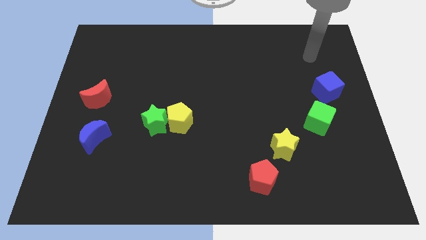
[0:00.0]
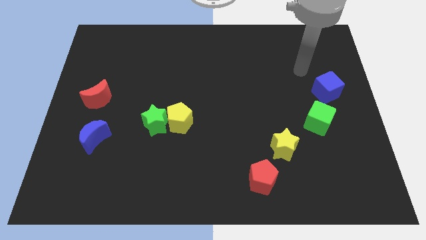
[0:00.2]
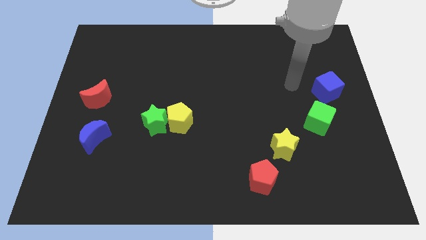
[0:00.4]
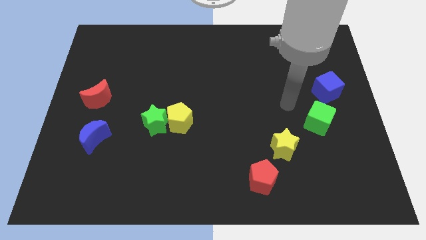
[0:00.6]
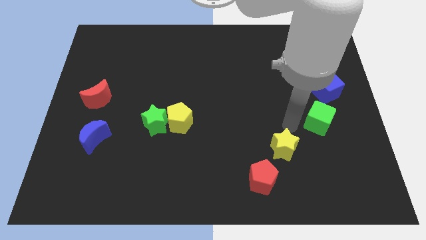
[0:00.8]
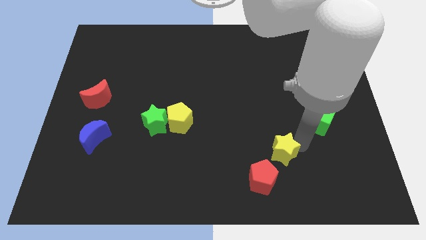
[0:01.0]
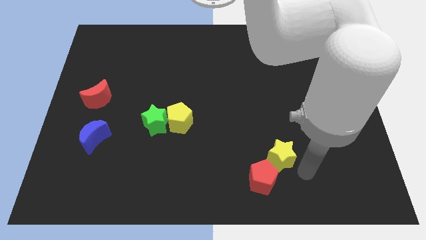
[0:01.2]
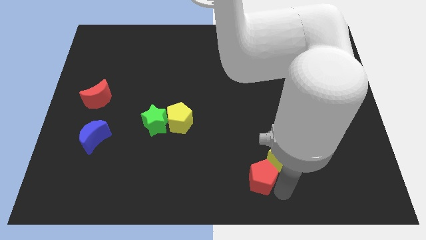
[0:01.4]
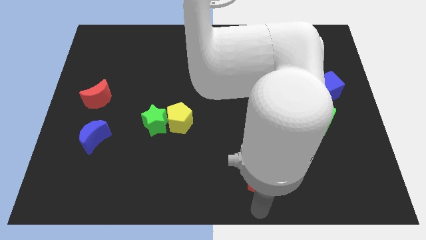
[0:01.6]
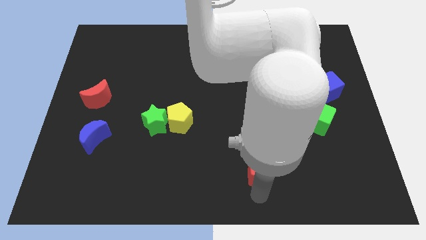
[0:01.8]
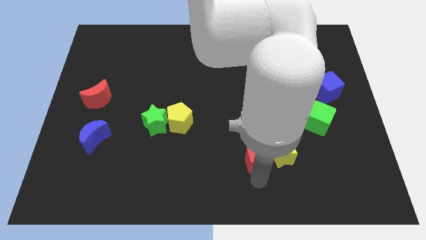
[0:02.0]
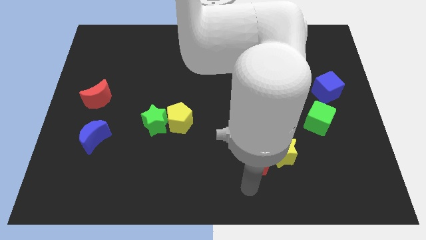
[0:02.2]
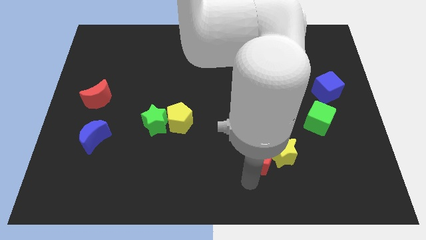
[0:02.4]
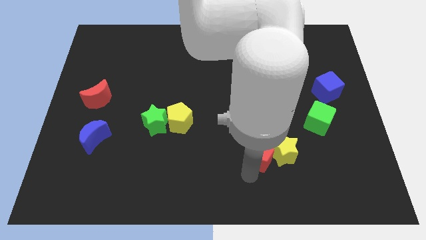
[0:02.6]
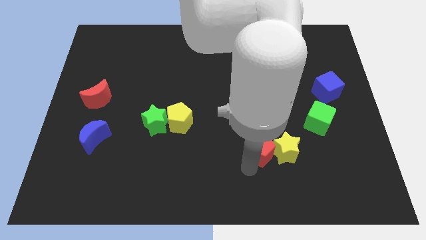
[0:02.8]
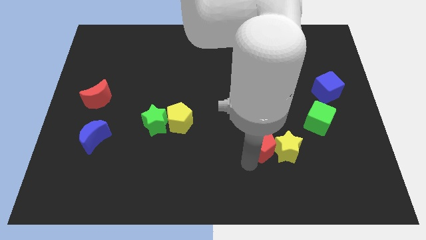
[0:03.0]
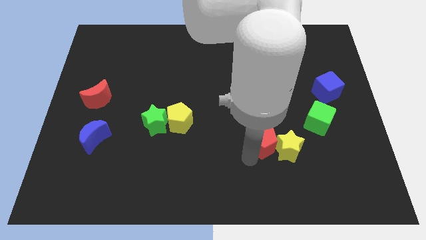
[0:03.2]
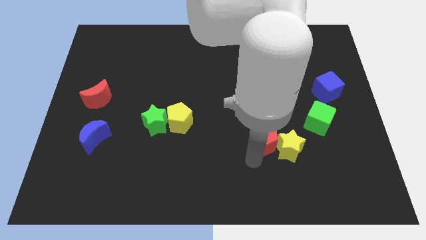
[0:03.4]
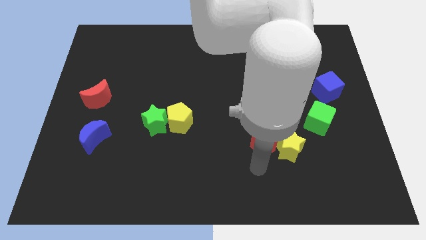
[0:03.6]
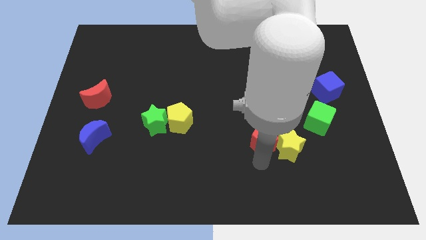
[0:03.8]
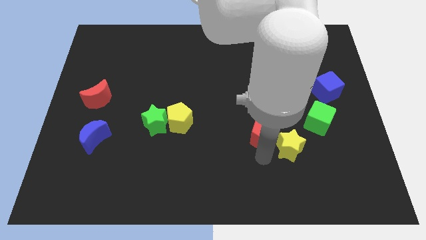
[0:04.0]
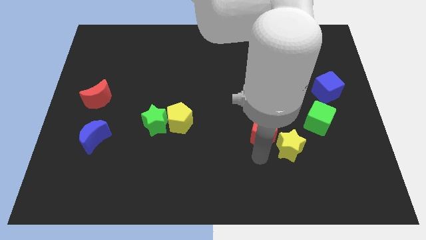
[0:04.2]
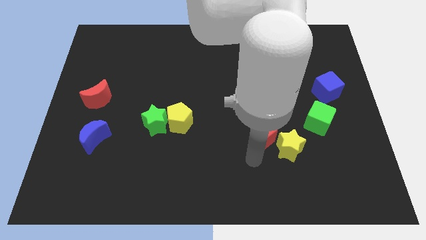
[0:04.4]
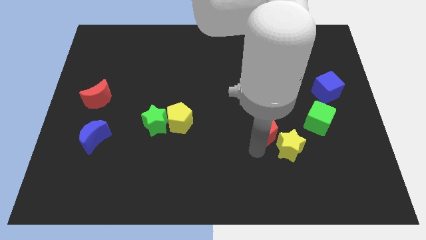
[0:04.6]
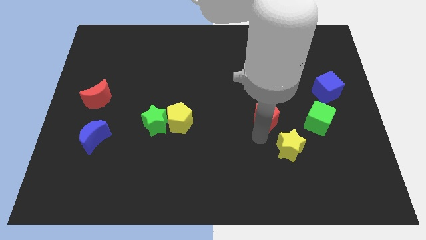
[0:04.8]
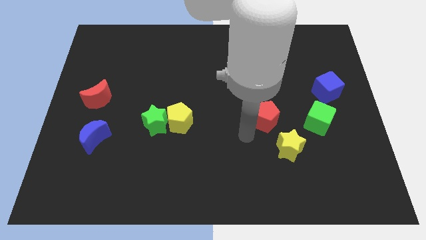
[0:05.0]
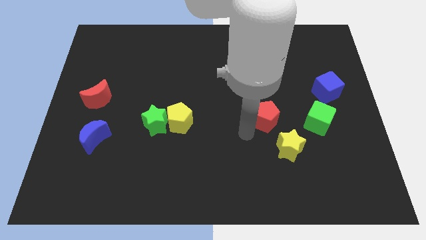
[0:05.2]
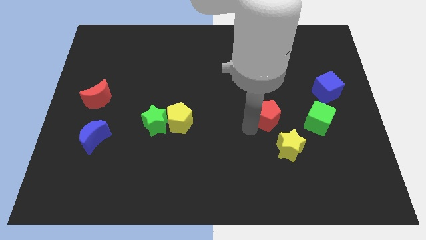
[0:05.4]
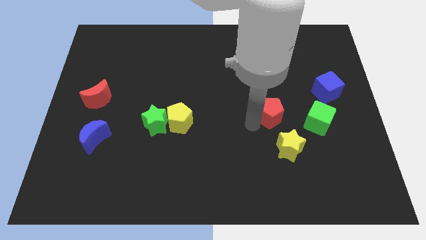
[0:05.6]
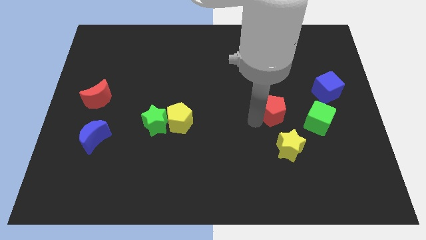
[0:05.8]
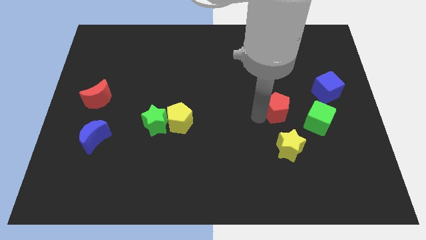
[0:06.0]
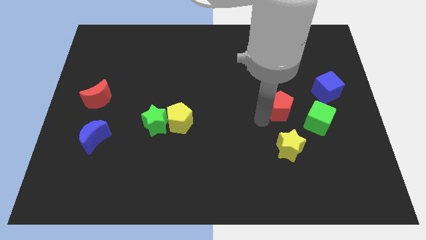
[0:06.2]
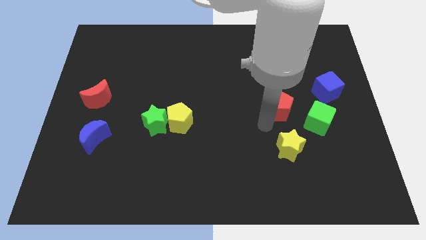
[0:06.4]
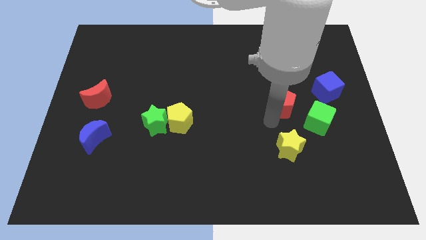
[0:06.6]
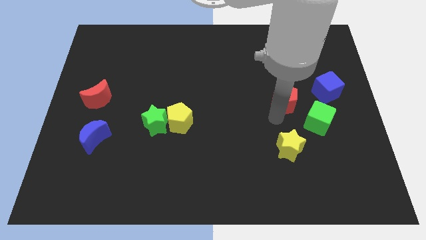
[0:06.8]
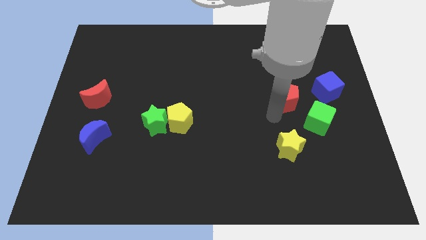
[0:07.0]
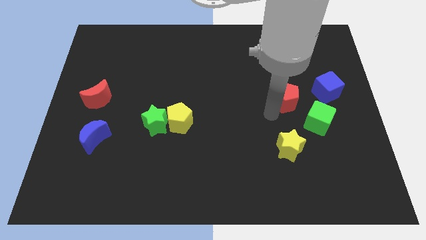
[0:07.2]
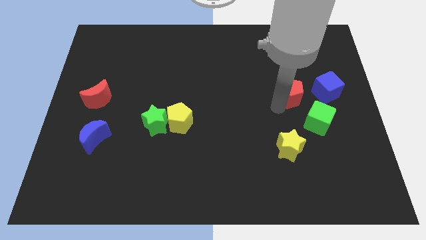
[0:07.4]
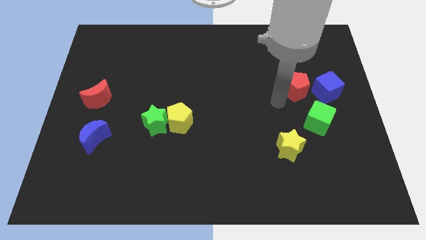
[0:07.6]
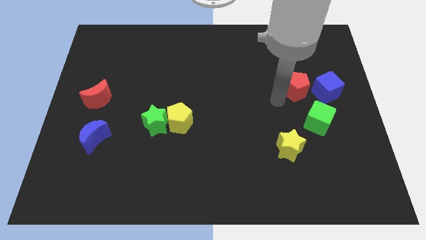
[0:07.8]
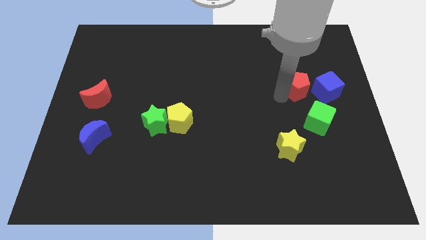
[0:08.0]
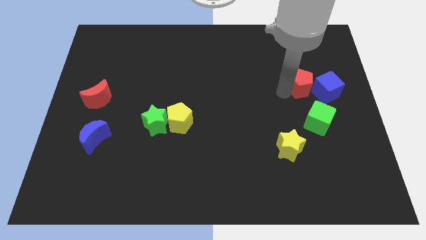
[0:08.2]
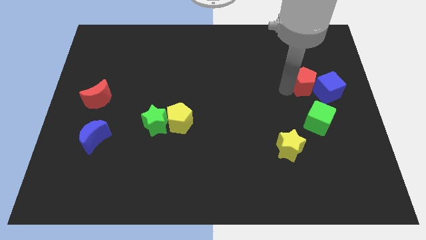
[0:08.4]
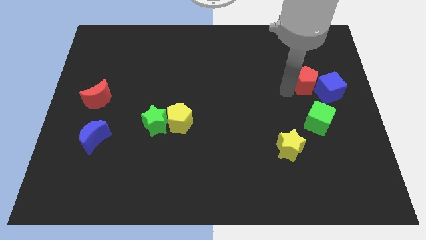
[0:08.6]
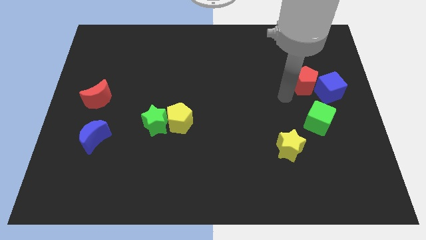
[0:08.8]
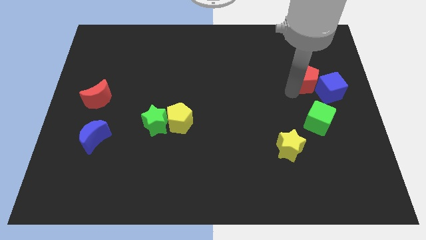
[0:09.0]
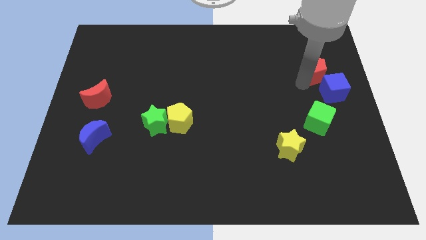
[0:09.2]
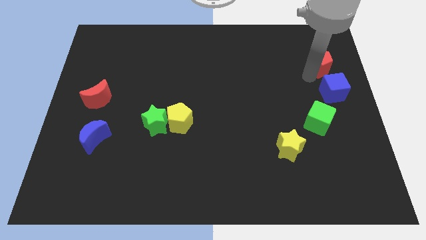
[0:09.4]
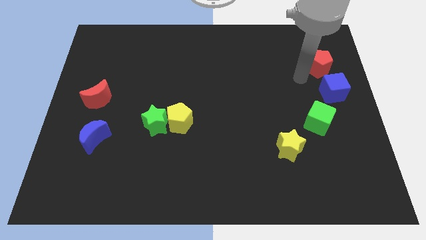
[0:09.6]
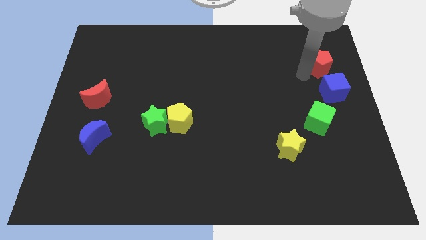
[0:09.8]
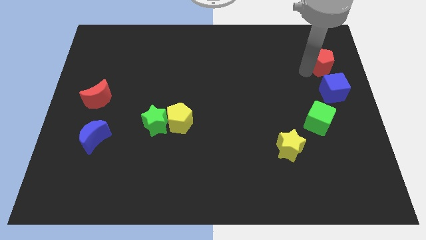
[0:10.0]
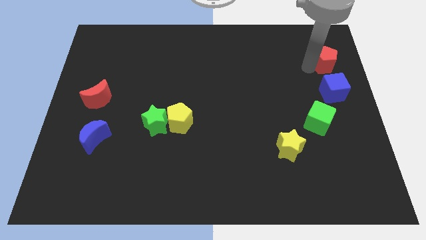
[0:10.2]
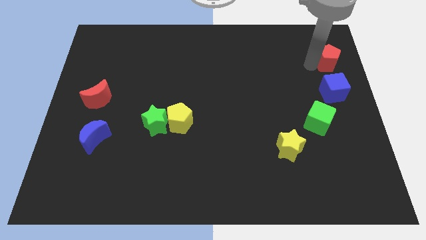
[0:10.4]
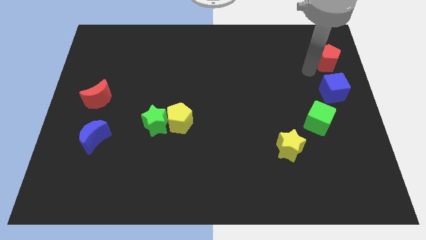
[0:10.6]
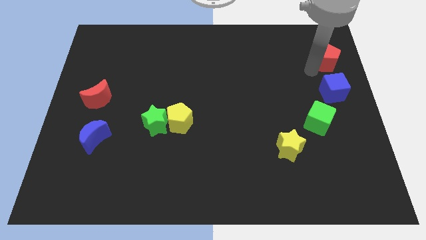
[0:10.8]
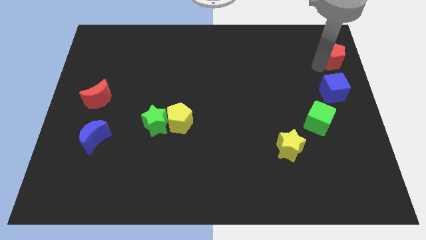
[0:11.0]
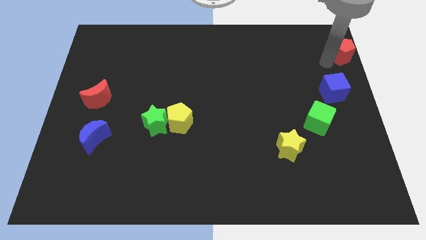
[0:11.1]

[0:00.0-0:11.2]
slide the red pentagon to the upper right corner

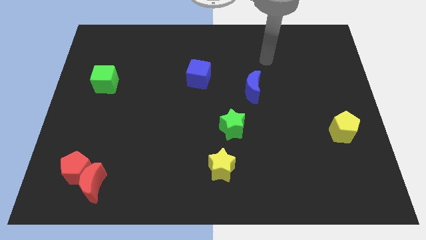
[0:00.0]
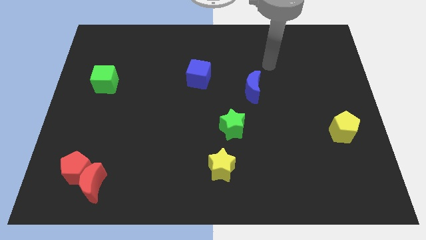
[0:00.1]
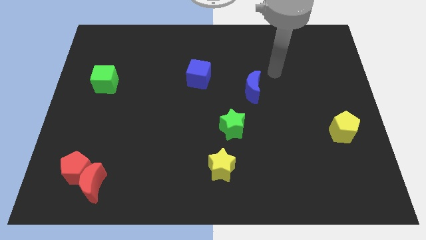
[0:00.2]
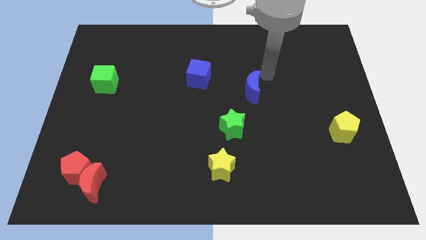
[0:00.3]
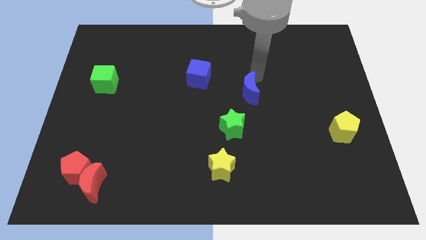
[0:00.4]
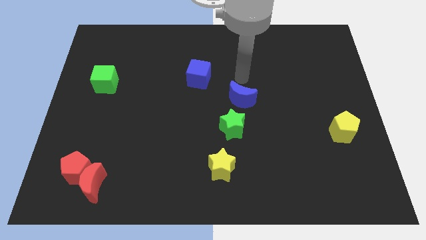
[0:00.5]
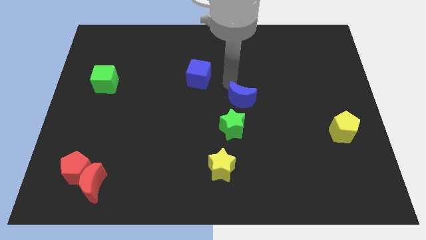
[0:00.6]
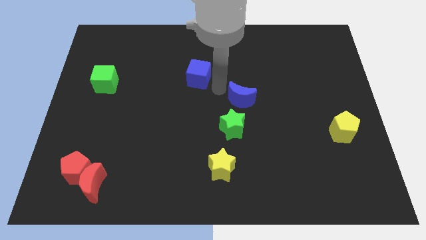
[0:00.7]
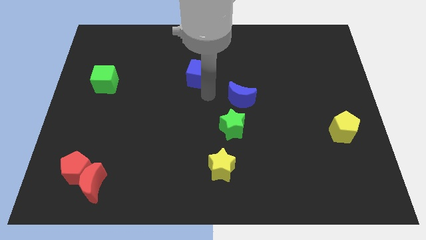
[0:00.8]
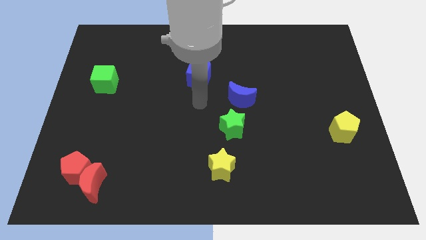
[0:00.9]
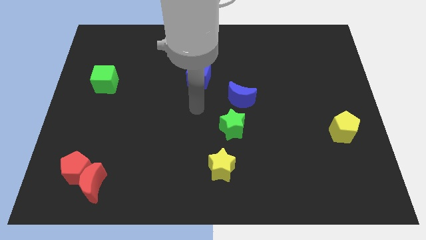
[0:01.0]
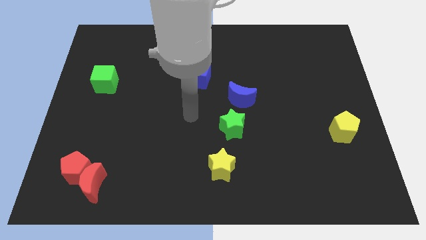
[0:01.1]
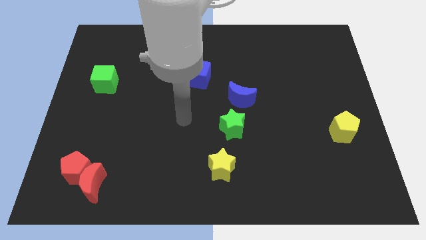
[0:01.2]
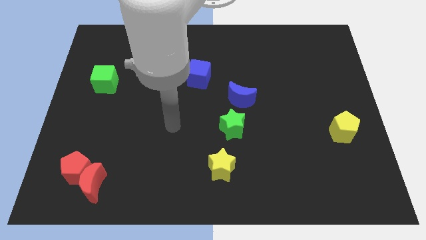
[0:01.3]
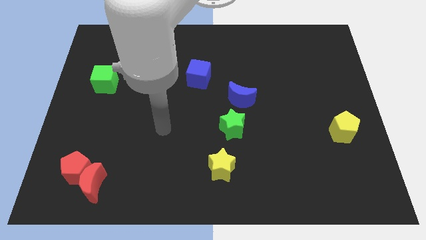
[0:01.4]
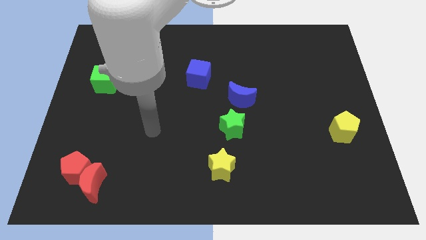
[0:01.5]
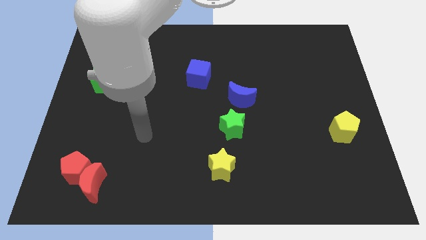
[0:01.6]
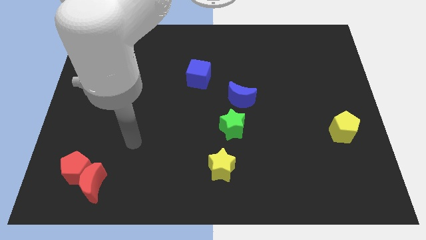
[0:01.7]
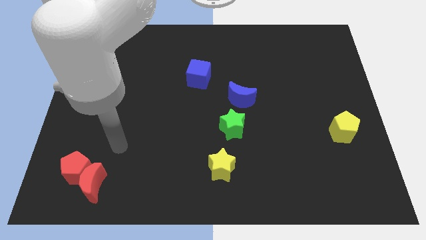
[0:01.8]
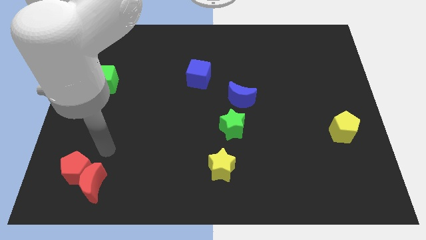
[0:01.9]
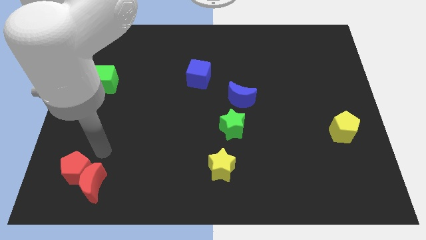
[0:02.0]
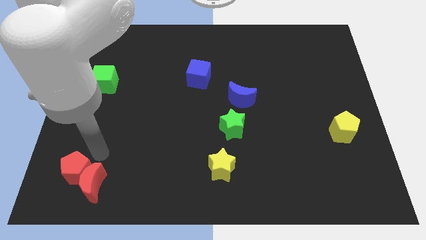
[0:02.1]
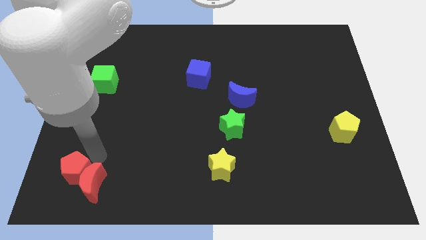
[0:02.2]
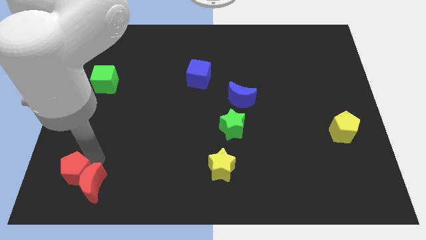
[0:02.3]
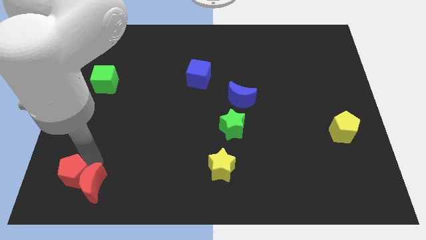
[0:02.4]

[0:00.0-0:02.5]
put the red pentagon to the bottom left of the board
